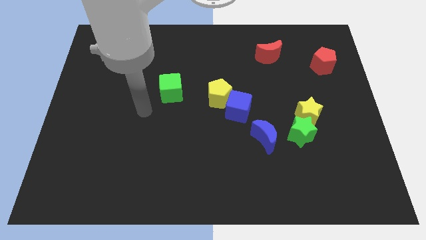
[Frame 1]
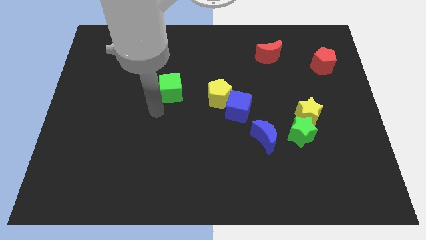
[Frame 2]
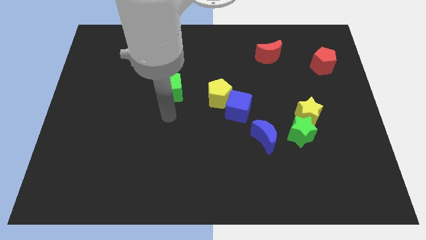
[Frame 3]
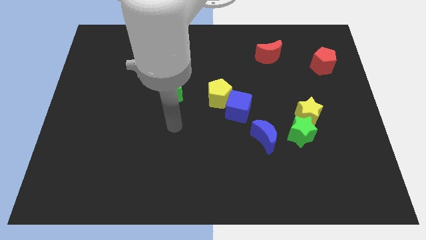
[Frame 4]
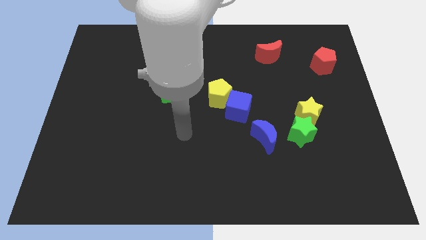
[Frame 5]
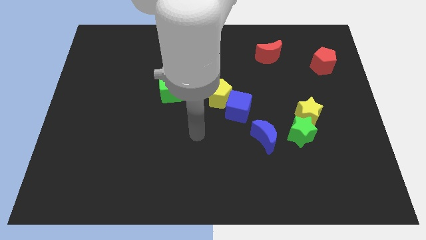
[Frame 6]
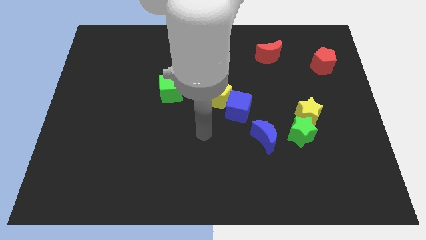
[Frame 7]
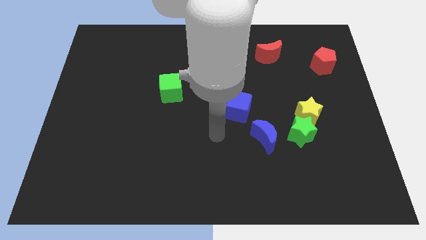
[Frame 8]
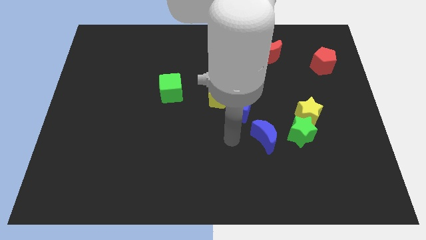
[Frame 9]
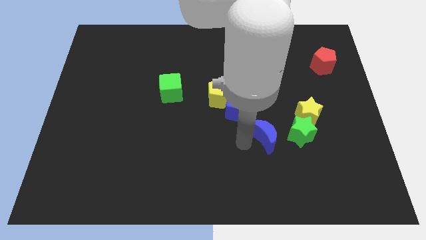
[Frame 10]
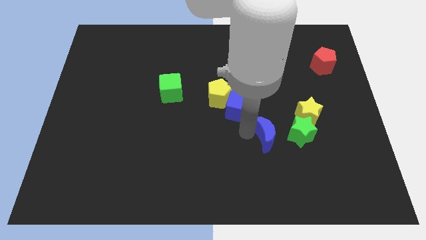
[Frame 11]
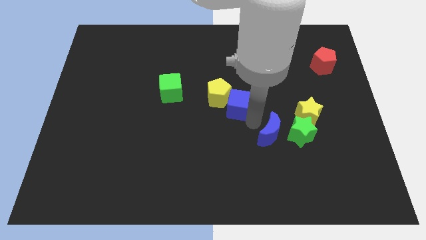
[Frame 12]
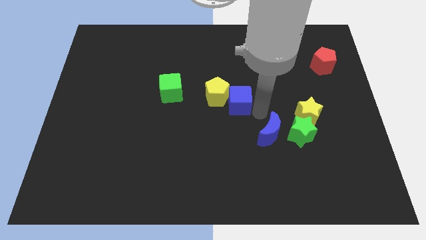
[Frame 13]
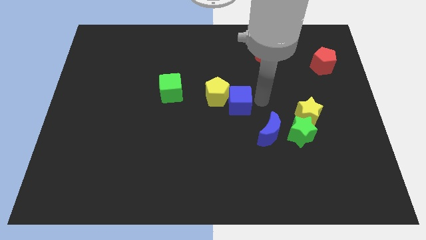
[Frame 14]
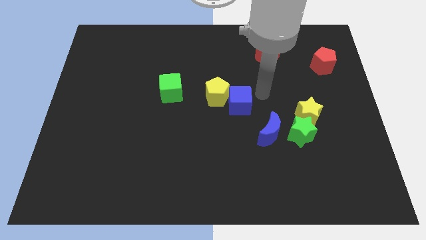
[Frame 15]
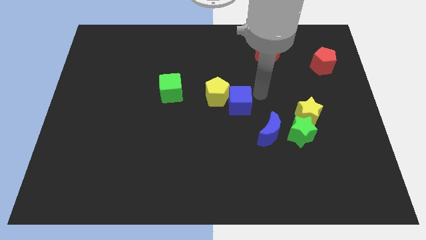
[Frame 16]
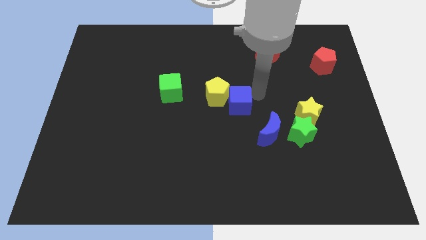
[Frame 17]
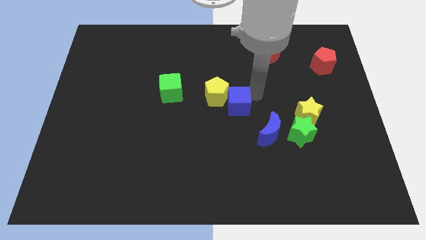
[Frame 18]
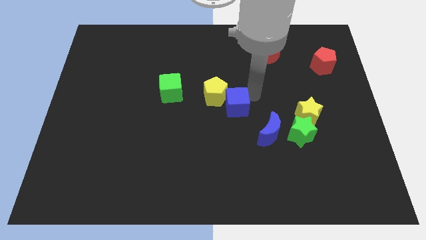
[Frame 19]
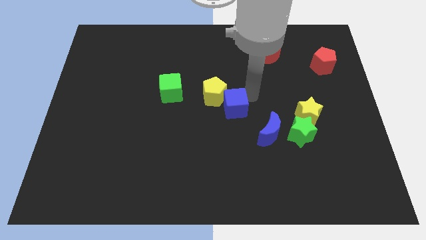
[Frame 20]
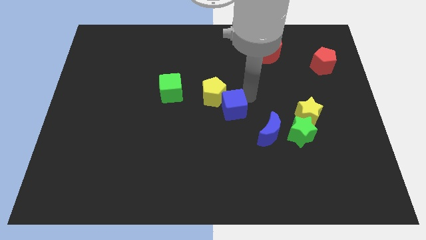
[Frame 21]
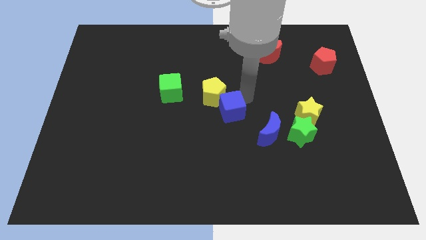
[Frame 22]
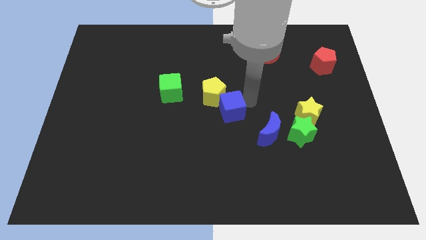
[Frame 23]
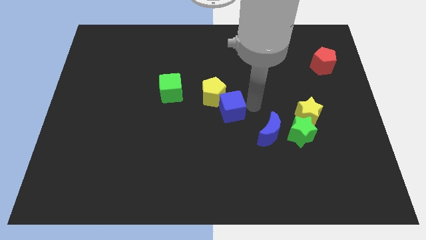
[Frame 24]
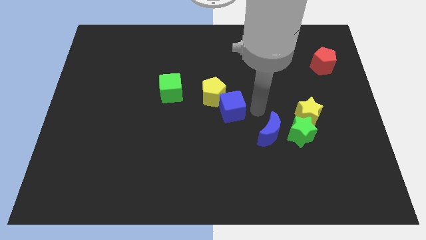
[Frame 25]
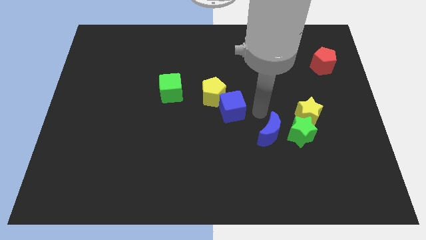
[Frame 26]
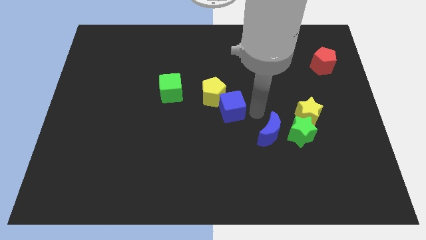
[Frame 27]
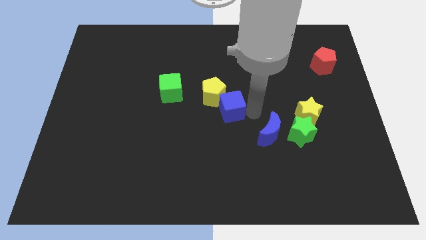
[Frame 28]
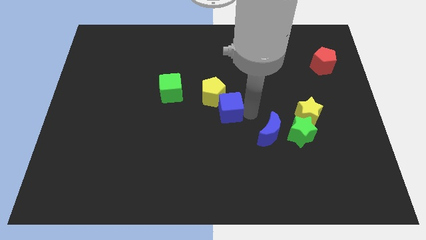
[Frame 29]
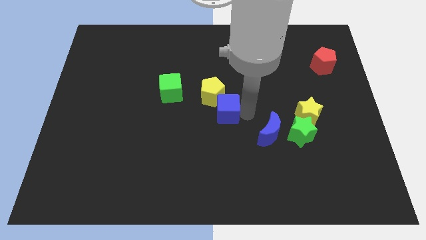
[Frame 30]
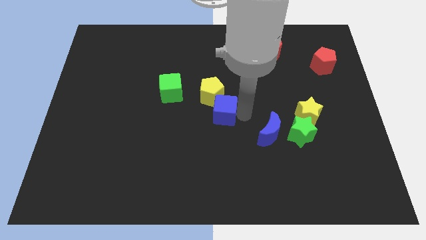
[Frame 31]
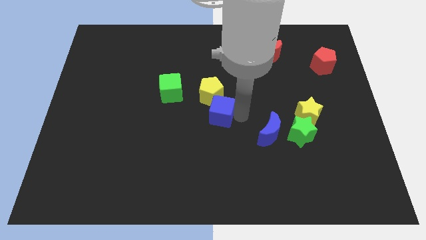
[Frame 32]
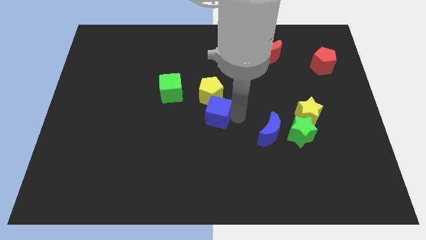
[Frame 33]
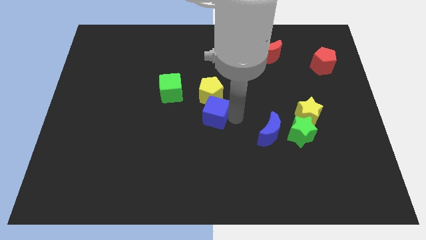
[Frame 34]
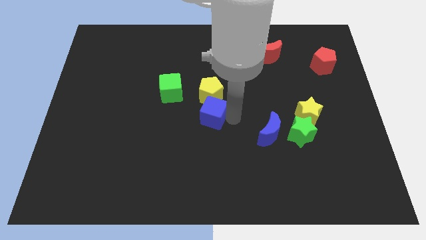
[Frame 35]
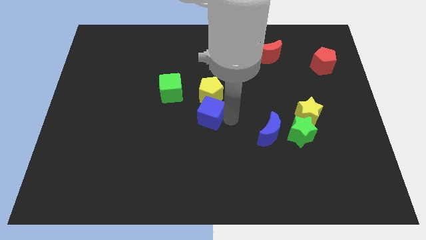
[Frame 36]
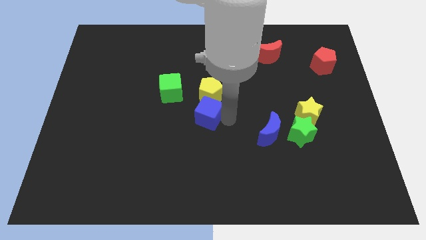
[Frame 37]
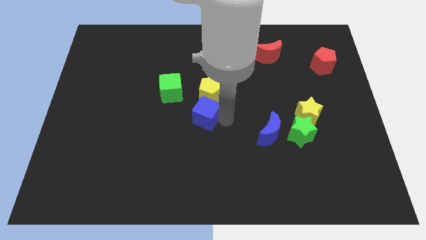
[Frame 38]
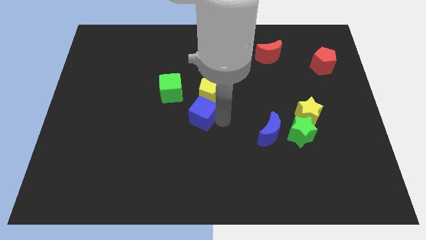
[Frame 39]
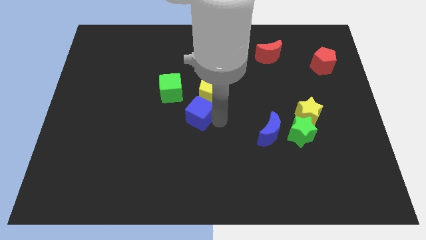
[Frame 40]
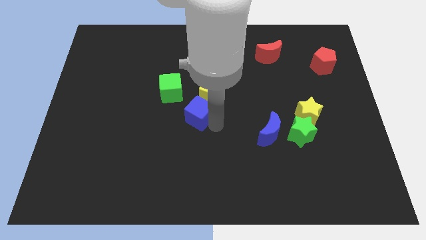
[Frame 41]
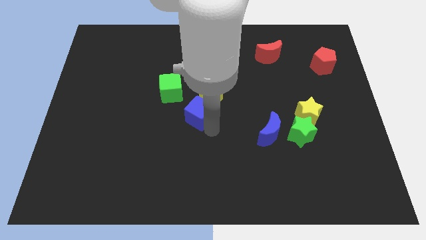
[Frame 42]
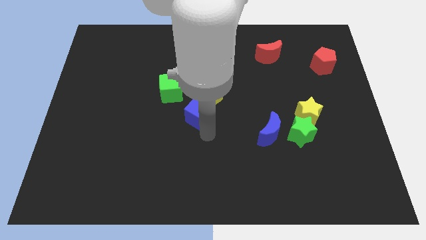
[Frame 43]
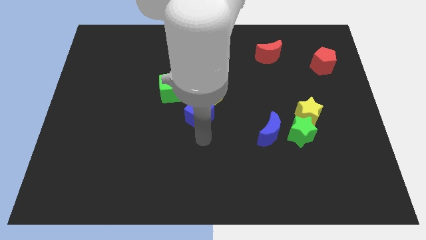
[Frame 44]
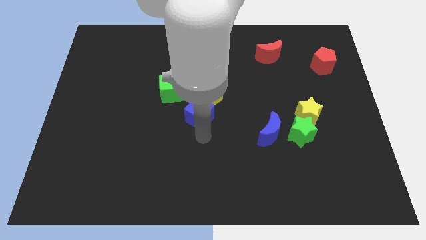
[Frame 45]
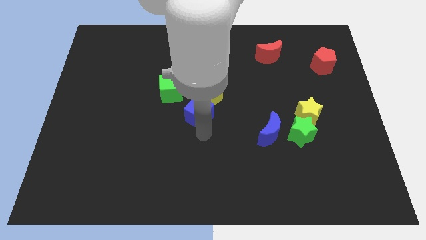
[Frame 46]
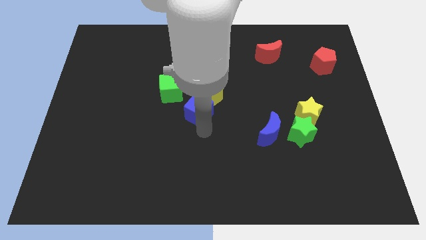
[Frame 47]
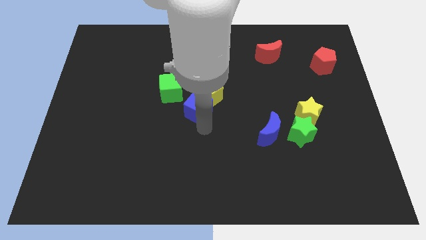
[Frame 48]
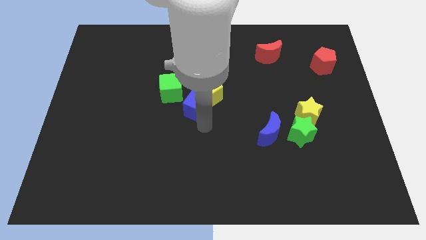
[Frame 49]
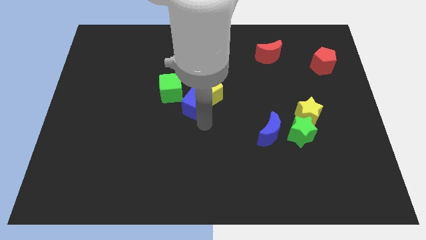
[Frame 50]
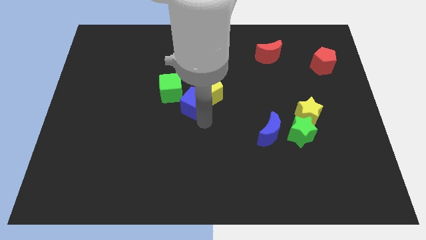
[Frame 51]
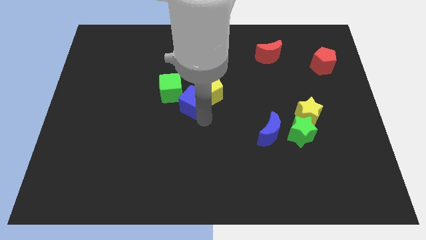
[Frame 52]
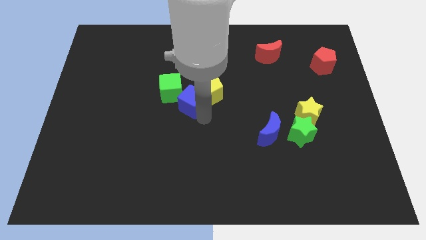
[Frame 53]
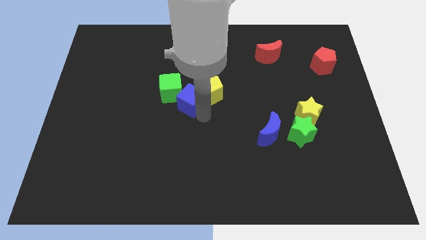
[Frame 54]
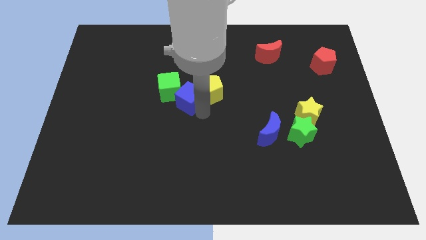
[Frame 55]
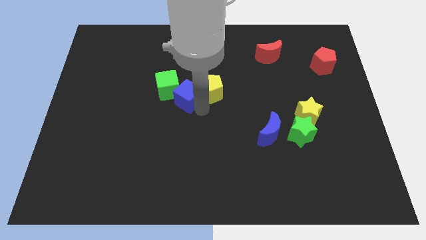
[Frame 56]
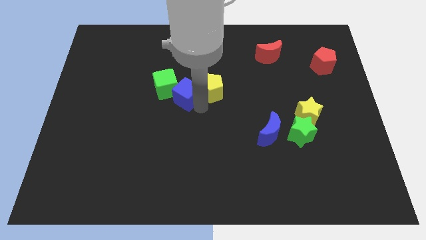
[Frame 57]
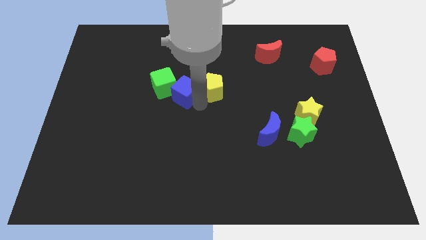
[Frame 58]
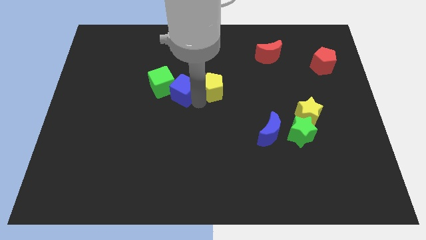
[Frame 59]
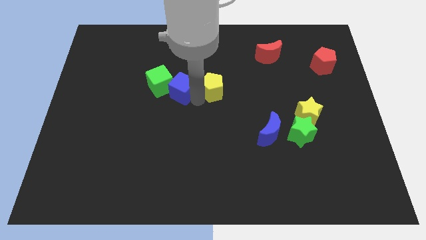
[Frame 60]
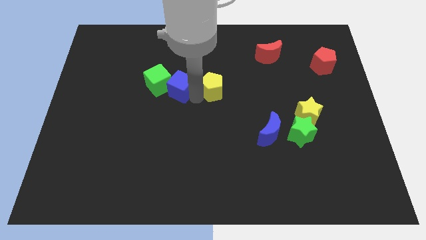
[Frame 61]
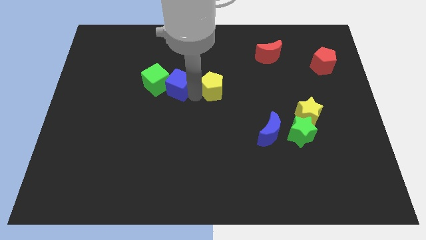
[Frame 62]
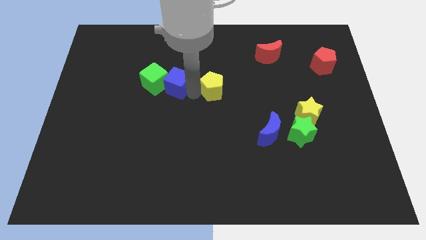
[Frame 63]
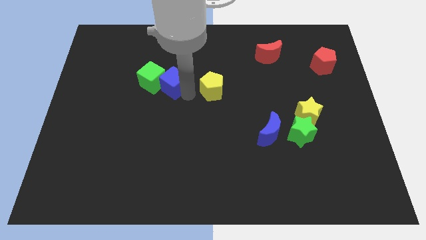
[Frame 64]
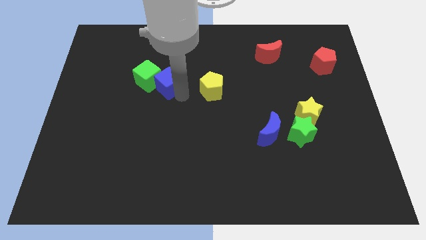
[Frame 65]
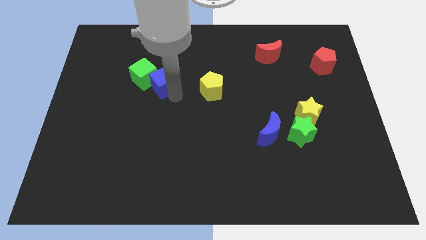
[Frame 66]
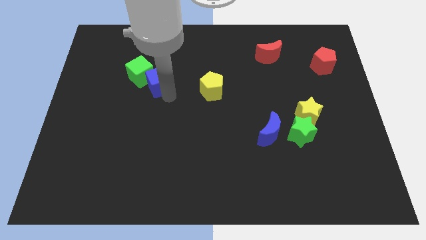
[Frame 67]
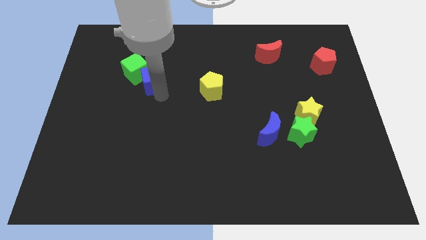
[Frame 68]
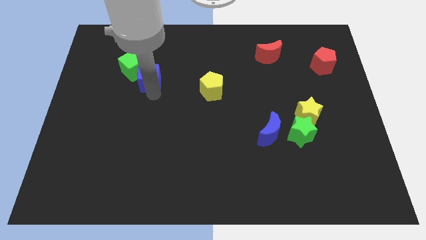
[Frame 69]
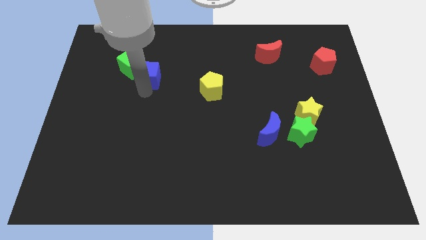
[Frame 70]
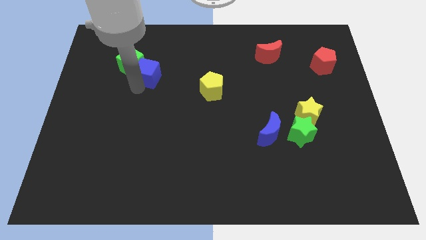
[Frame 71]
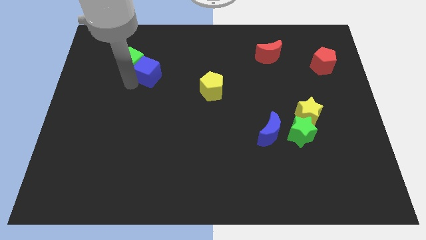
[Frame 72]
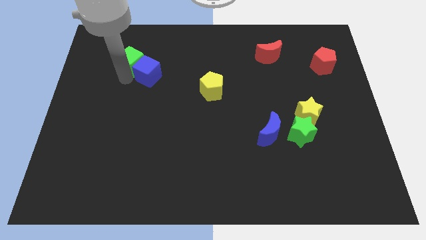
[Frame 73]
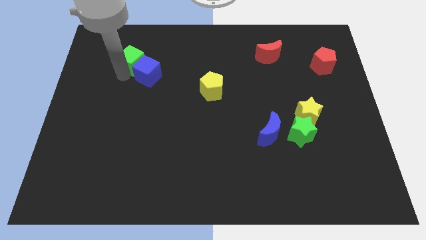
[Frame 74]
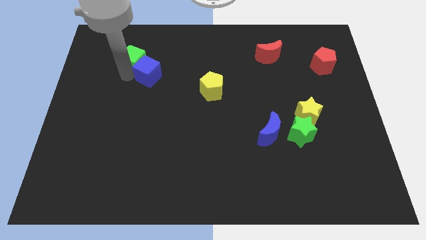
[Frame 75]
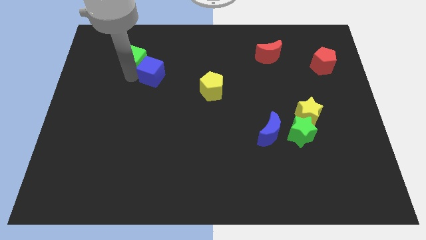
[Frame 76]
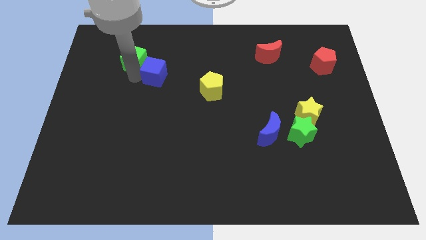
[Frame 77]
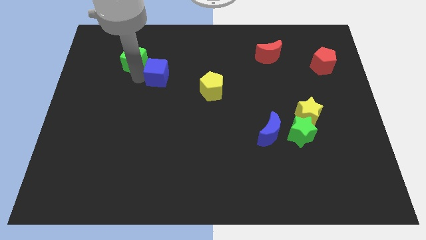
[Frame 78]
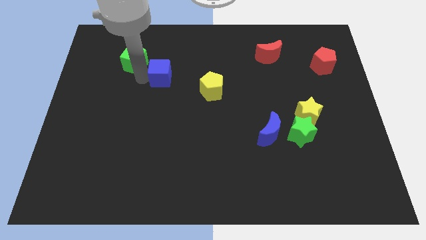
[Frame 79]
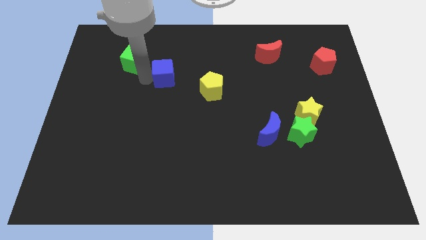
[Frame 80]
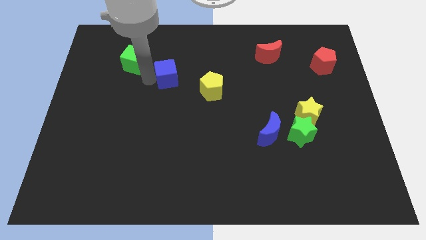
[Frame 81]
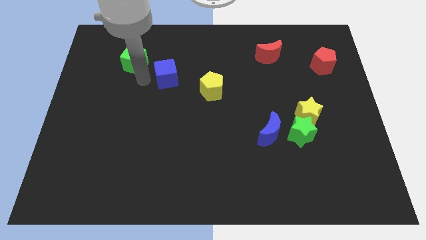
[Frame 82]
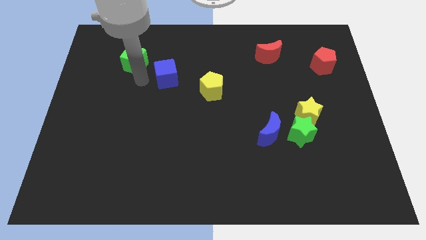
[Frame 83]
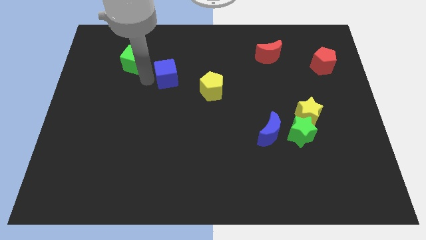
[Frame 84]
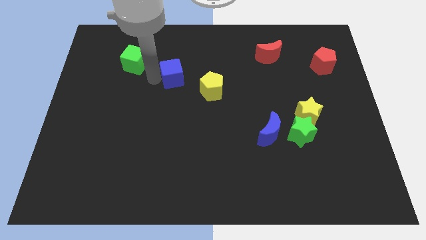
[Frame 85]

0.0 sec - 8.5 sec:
put the blue cube to the top left of the yellow pentagon
